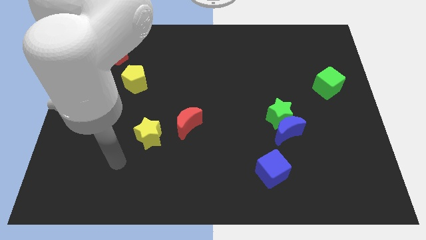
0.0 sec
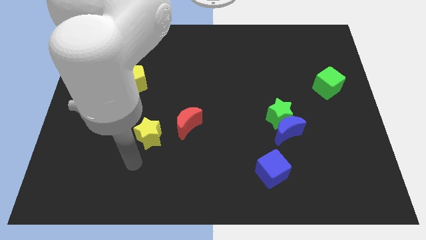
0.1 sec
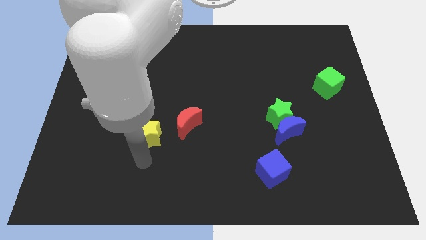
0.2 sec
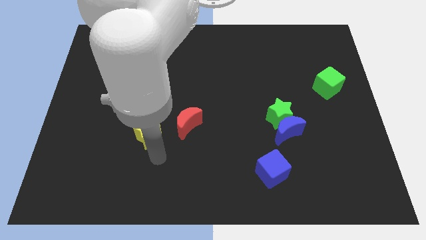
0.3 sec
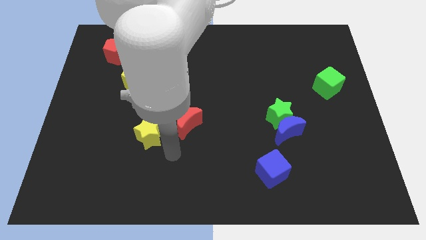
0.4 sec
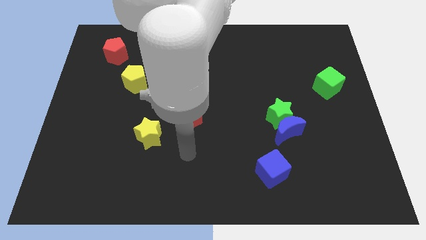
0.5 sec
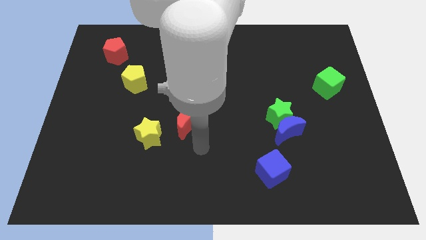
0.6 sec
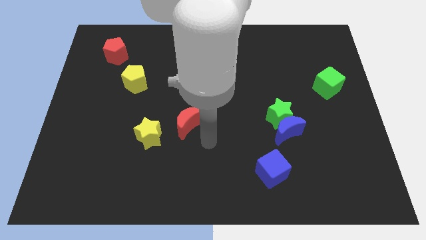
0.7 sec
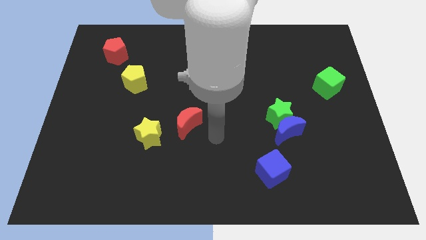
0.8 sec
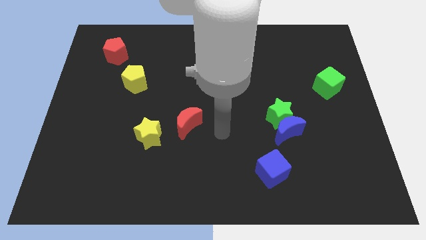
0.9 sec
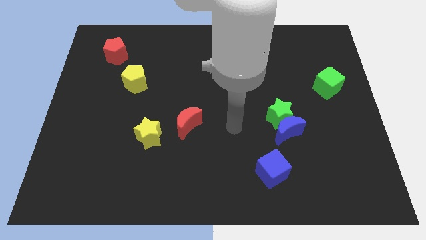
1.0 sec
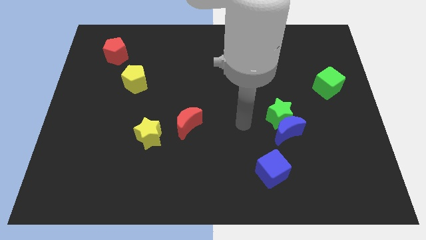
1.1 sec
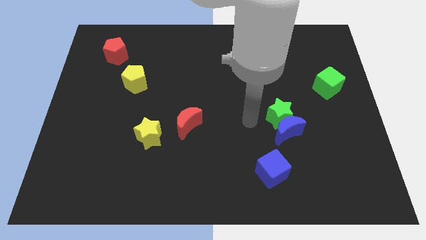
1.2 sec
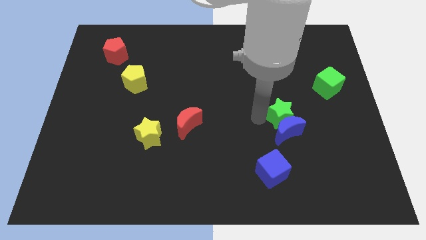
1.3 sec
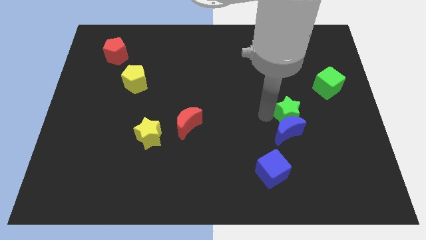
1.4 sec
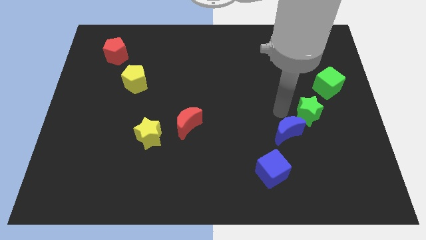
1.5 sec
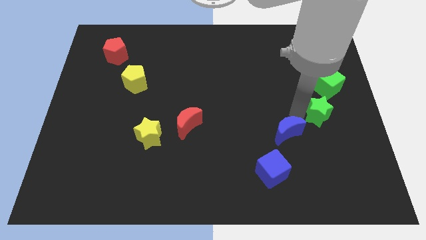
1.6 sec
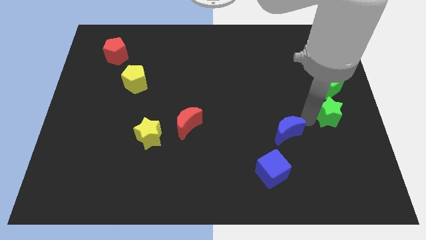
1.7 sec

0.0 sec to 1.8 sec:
separate the blue moon from the green star

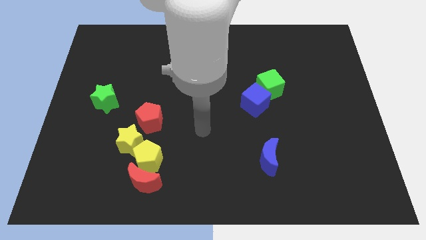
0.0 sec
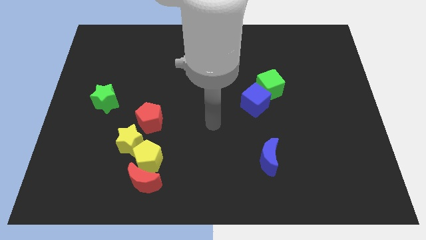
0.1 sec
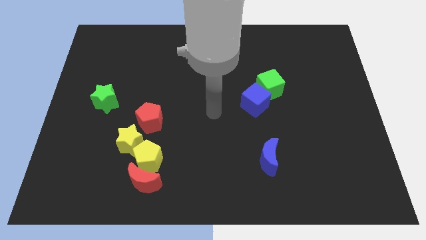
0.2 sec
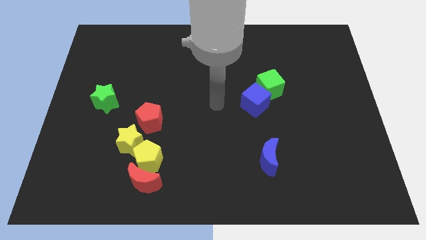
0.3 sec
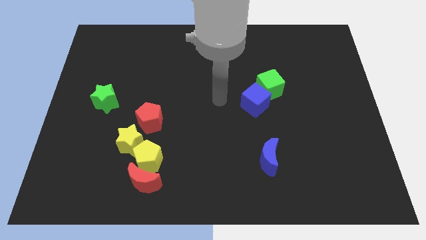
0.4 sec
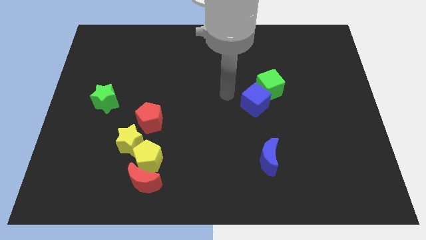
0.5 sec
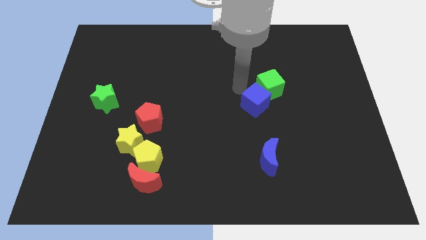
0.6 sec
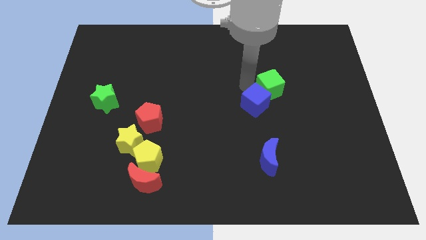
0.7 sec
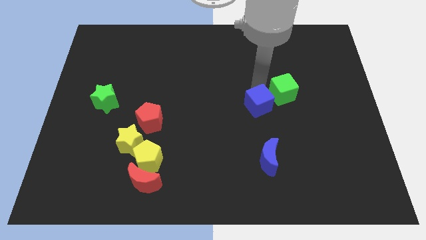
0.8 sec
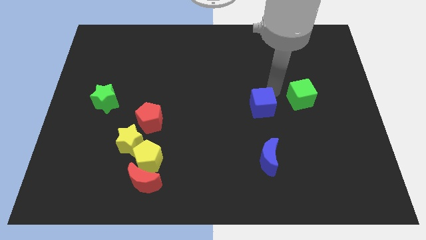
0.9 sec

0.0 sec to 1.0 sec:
pull the blue cube apart from the green cube

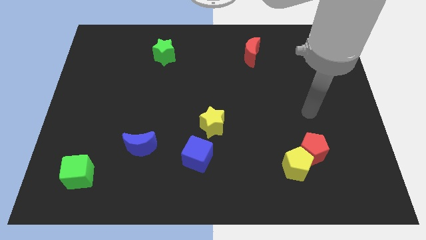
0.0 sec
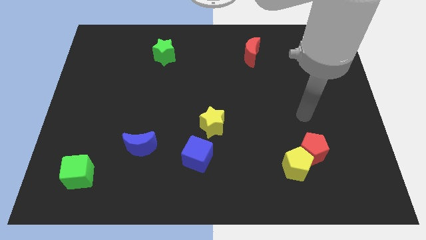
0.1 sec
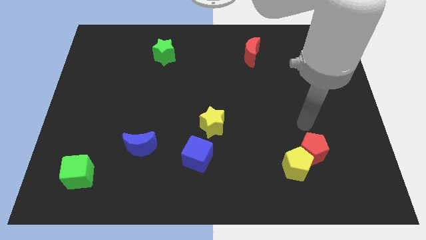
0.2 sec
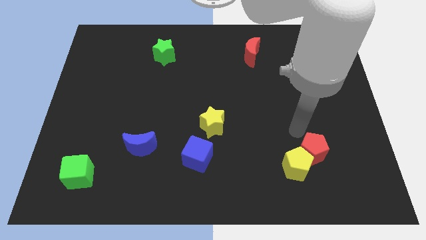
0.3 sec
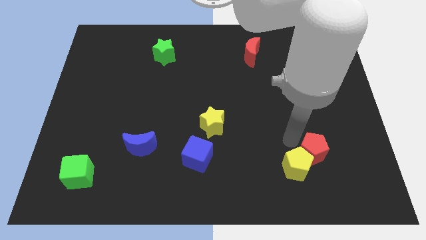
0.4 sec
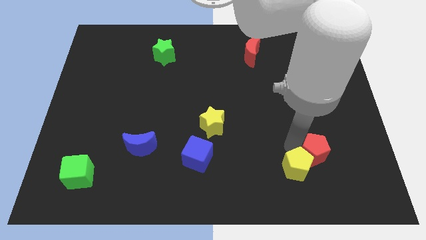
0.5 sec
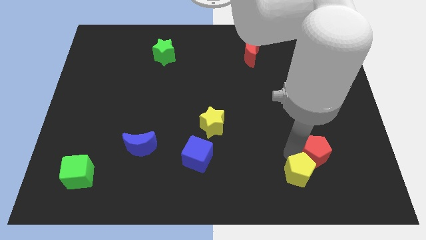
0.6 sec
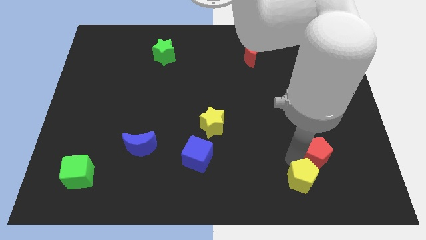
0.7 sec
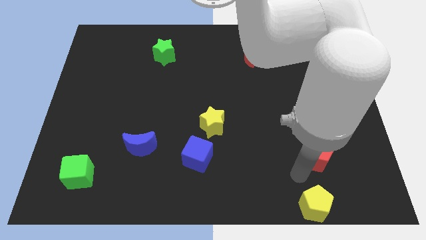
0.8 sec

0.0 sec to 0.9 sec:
separate the red pentagon from the yellow pentagon

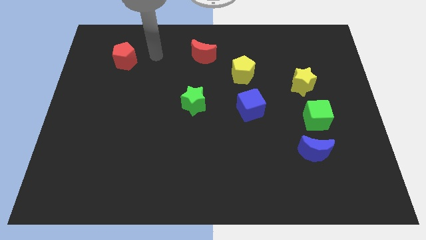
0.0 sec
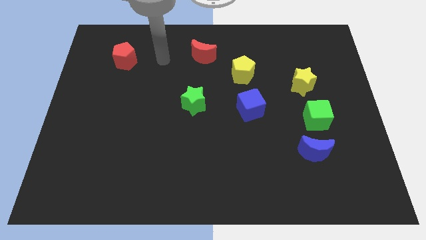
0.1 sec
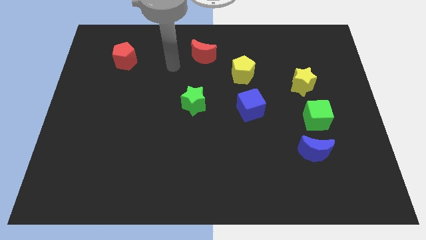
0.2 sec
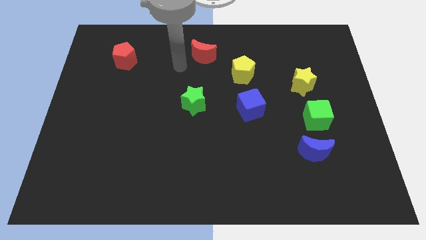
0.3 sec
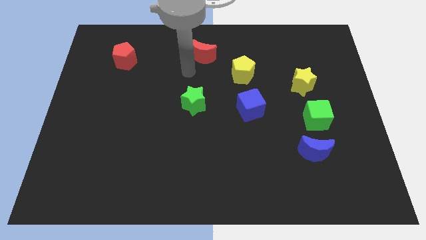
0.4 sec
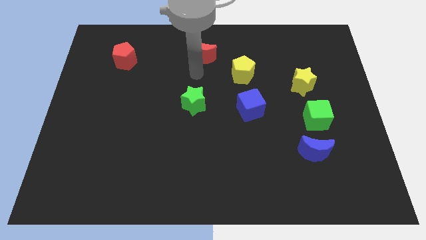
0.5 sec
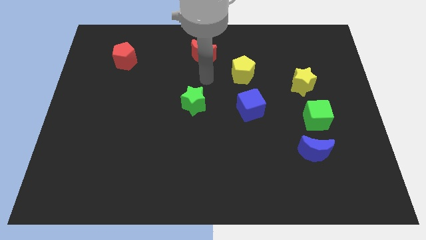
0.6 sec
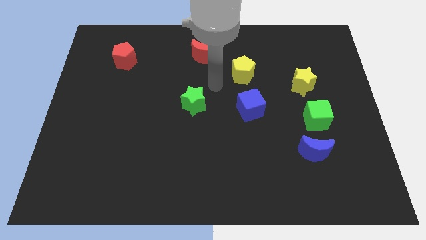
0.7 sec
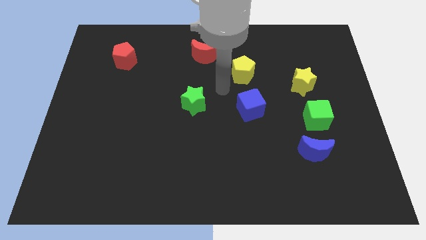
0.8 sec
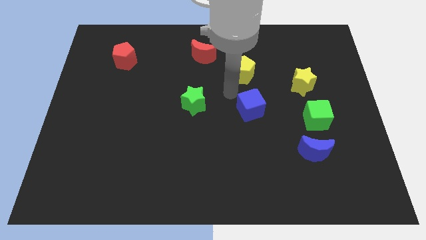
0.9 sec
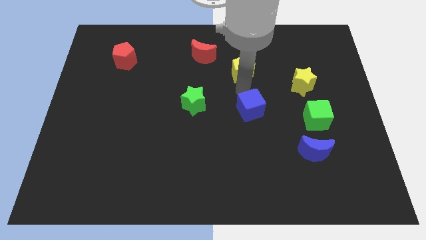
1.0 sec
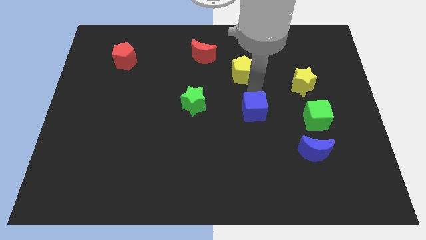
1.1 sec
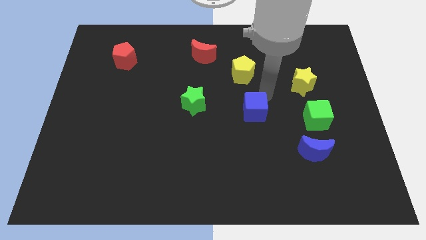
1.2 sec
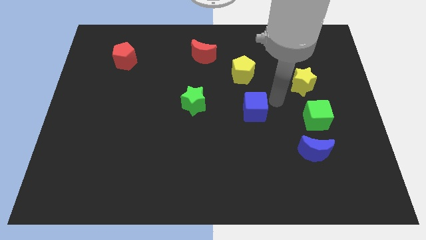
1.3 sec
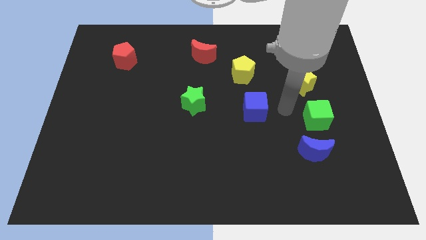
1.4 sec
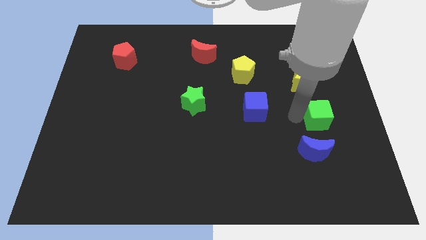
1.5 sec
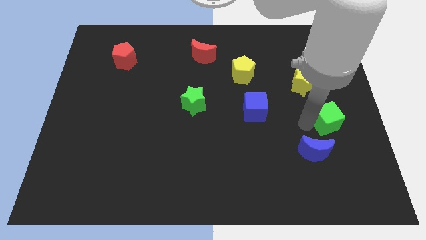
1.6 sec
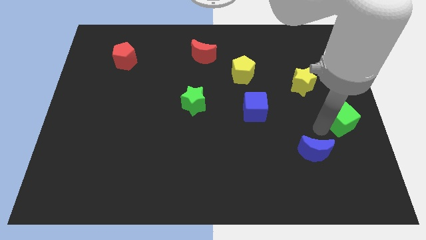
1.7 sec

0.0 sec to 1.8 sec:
move the blue moon away from the green cube

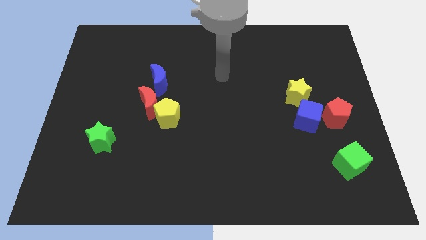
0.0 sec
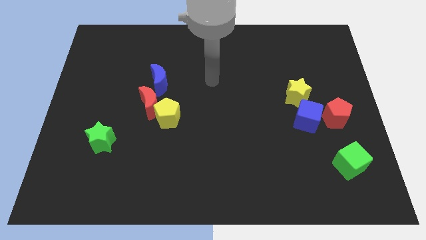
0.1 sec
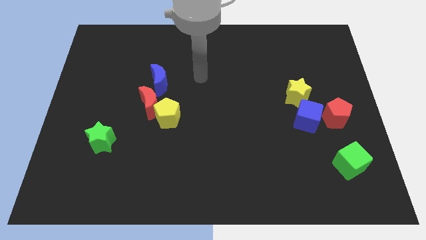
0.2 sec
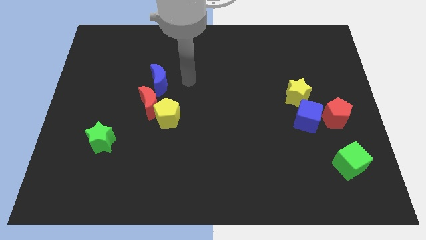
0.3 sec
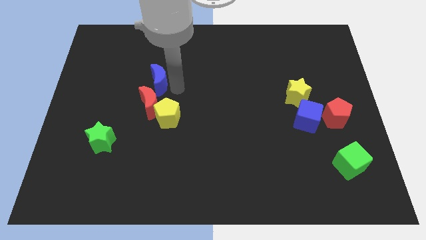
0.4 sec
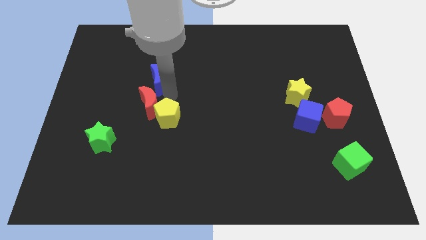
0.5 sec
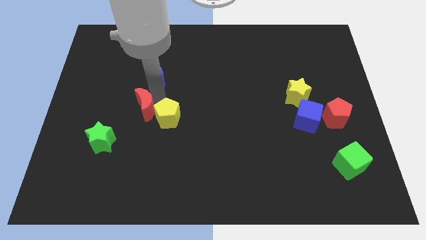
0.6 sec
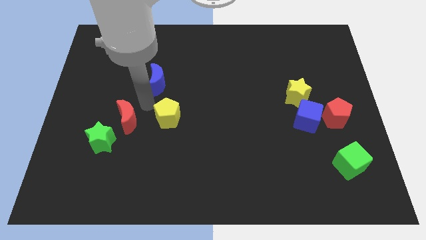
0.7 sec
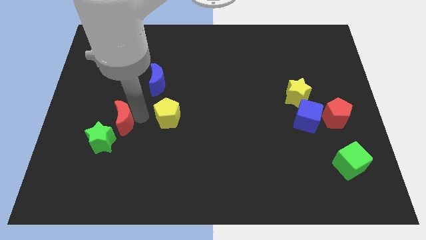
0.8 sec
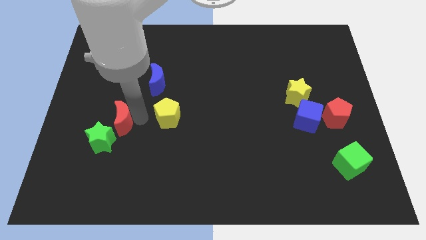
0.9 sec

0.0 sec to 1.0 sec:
separate the yellow pentagon from the red moon

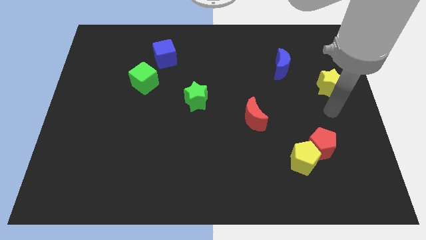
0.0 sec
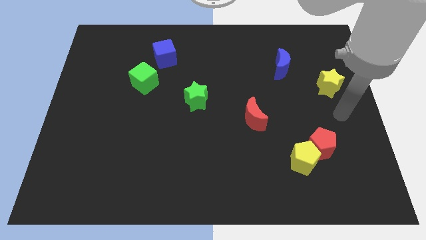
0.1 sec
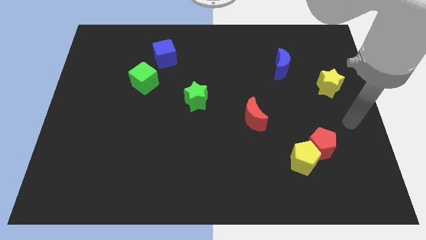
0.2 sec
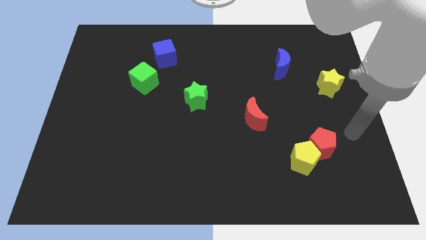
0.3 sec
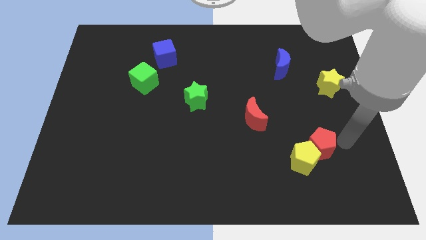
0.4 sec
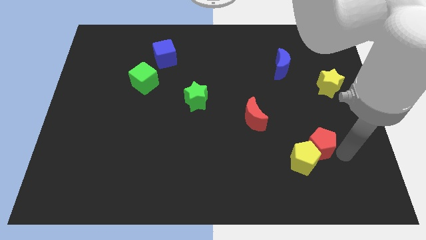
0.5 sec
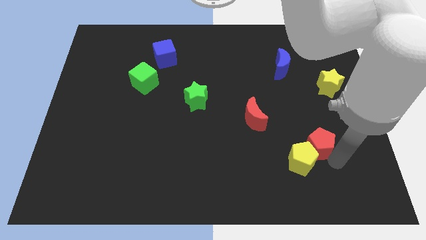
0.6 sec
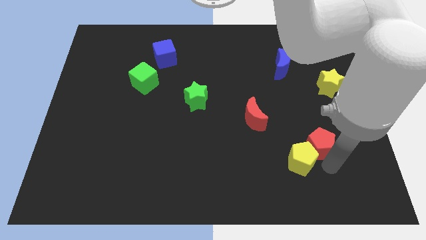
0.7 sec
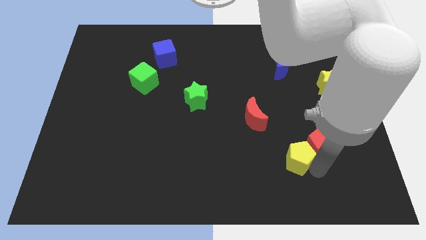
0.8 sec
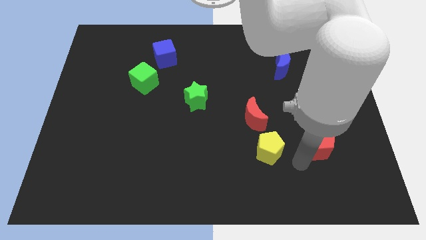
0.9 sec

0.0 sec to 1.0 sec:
move the red pentagon away from the yellow pentagon

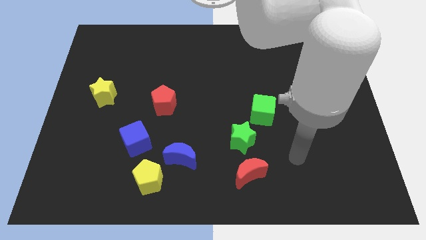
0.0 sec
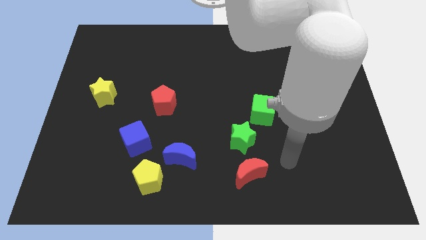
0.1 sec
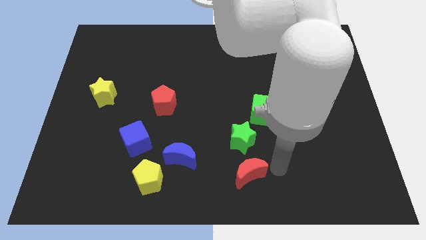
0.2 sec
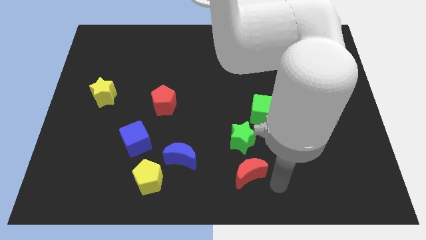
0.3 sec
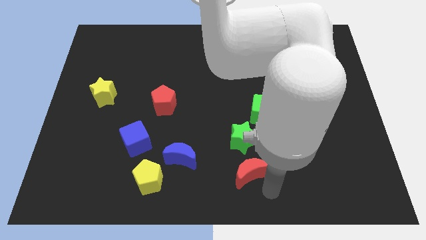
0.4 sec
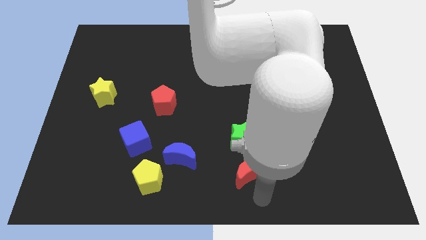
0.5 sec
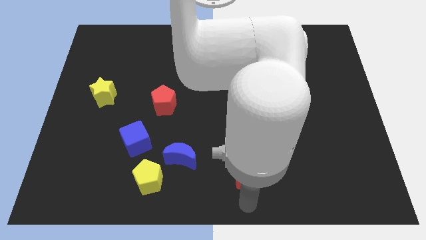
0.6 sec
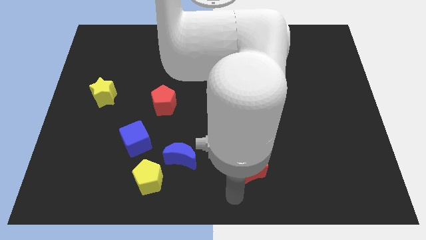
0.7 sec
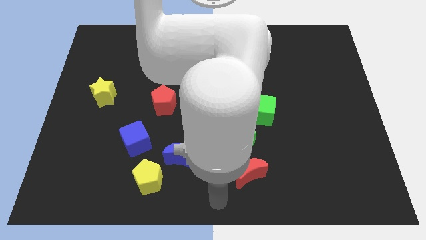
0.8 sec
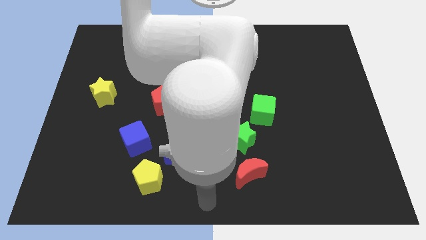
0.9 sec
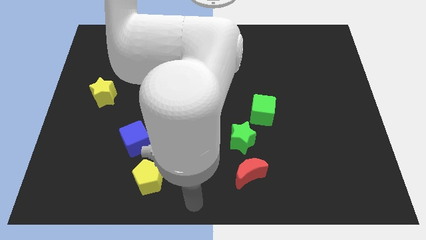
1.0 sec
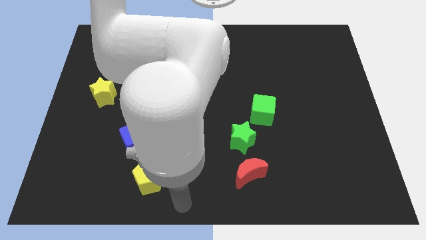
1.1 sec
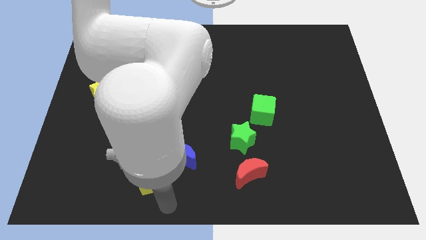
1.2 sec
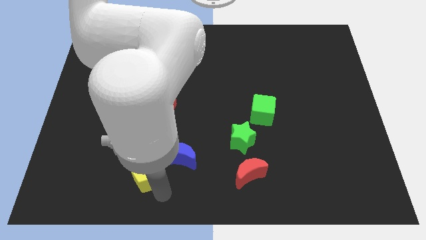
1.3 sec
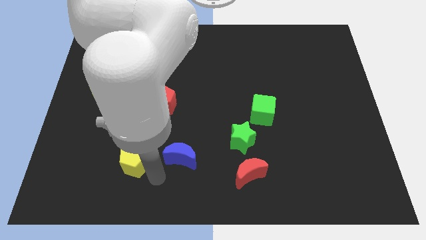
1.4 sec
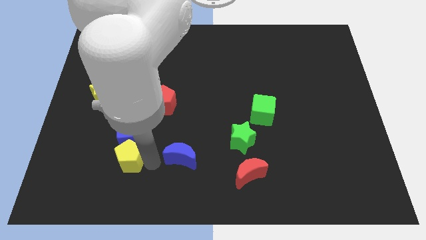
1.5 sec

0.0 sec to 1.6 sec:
separate the blue moon from the yellow pentagon

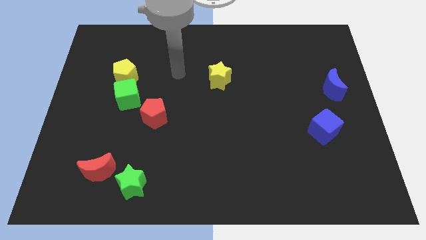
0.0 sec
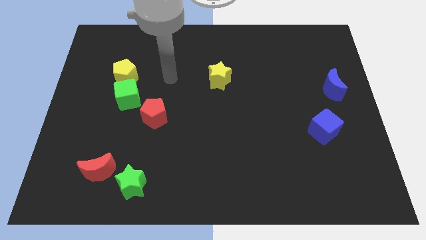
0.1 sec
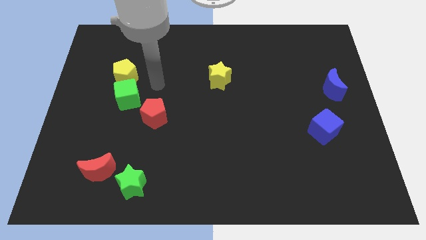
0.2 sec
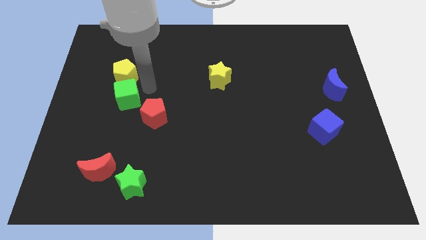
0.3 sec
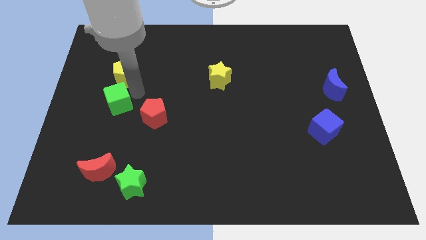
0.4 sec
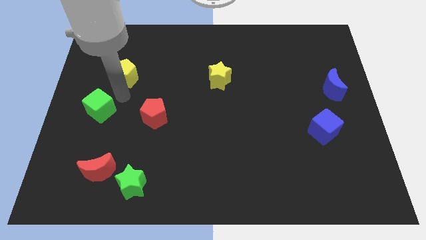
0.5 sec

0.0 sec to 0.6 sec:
pull the yellow pentagon apart from the green cube
